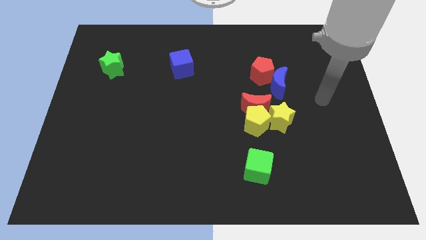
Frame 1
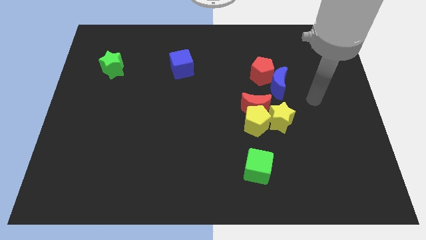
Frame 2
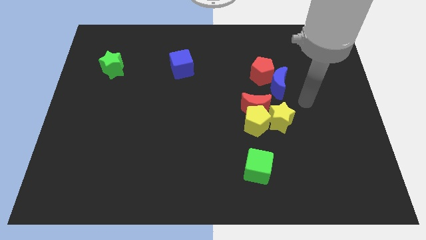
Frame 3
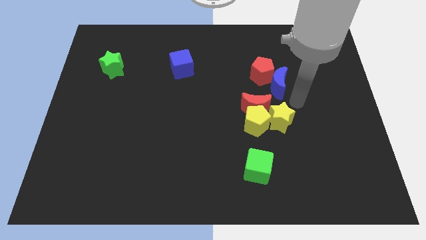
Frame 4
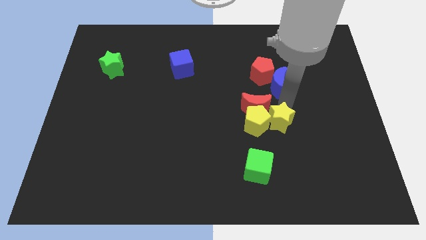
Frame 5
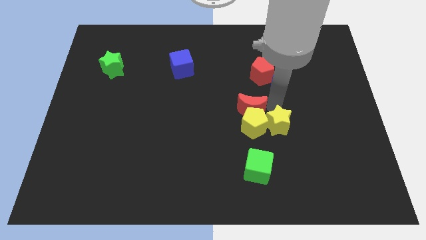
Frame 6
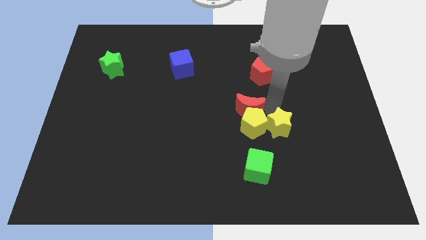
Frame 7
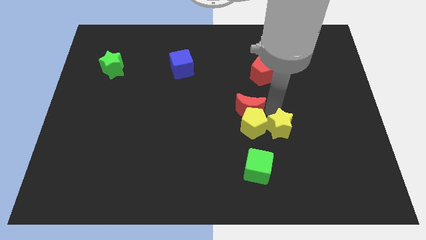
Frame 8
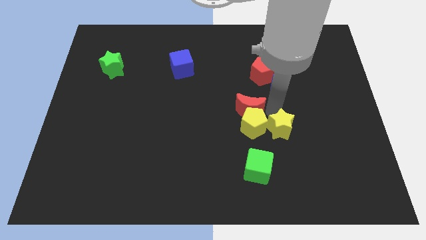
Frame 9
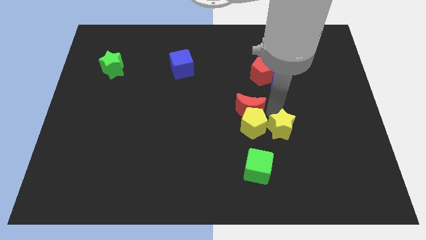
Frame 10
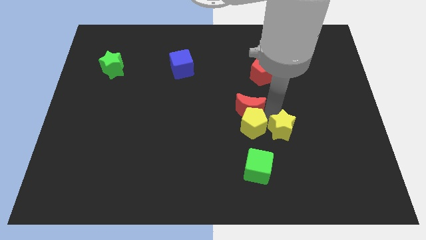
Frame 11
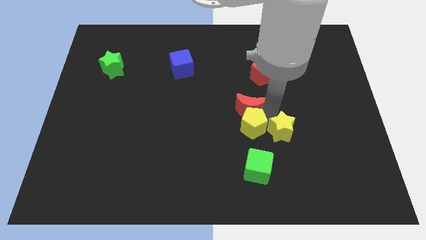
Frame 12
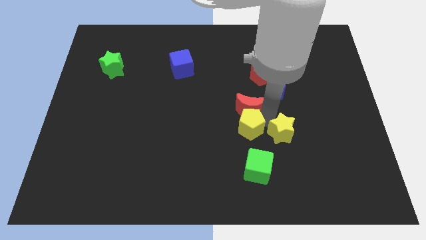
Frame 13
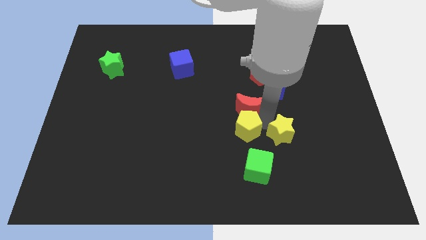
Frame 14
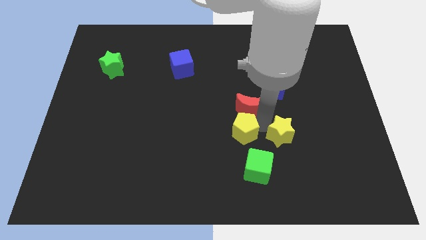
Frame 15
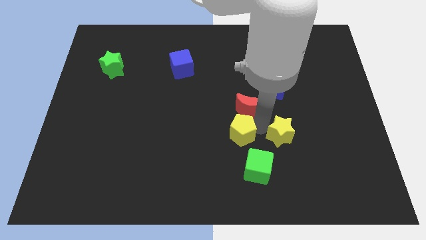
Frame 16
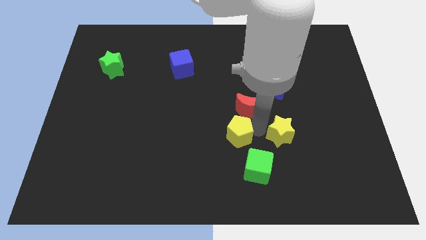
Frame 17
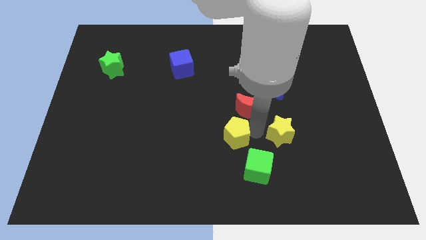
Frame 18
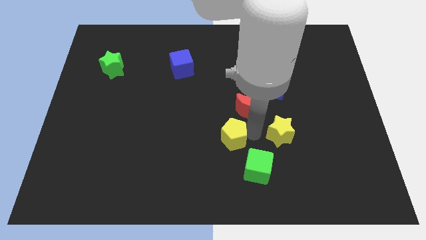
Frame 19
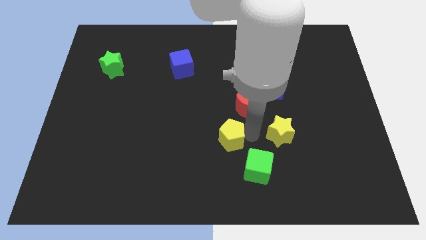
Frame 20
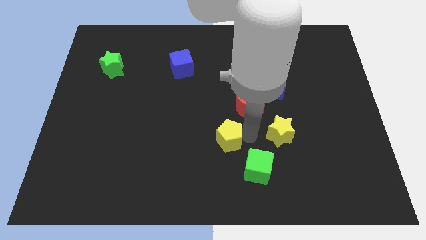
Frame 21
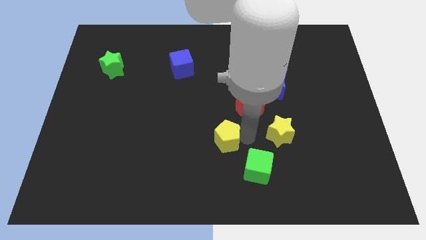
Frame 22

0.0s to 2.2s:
separate the yellow pentagon from the red moon and yellow star

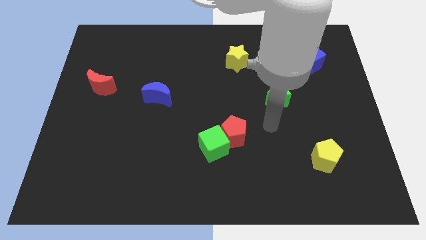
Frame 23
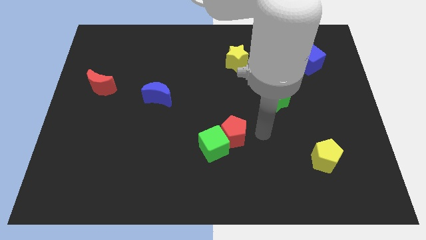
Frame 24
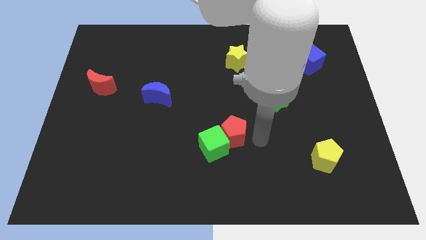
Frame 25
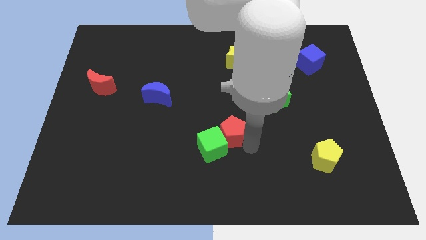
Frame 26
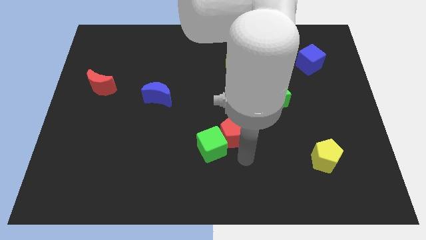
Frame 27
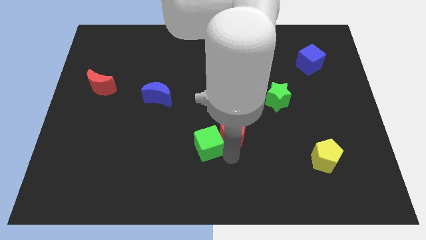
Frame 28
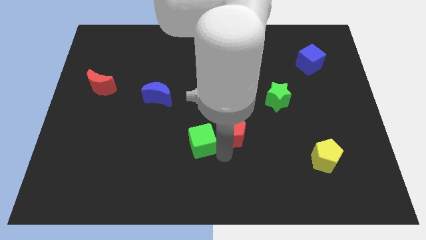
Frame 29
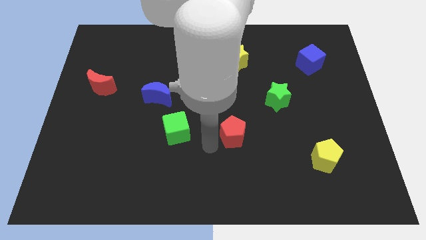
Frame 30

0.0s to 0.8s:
pull the red pentagon apart from the green cube

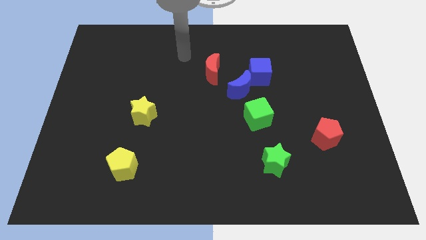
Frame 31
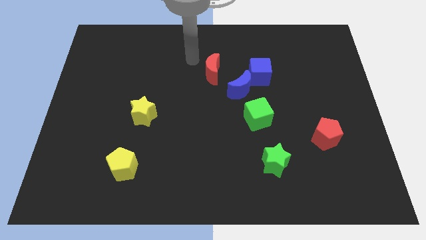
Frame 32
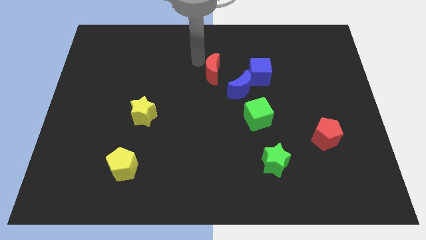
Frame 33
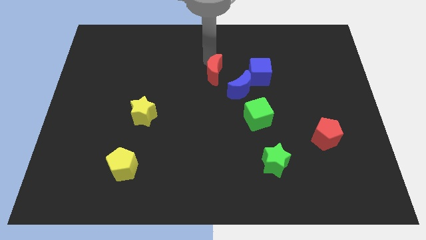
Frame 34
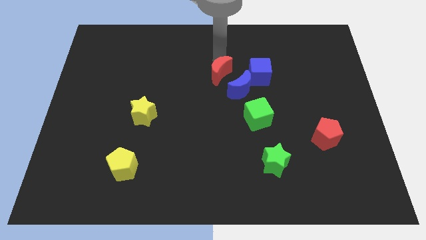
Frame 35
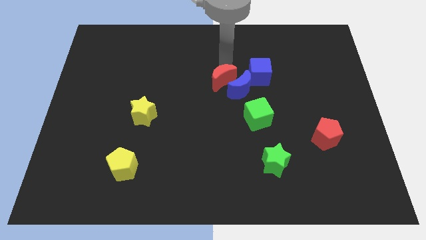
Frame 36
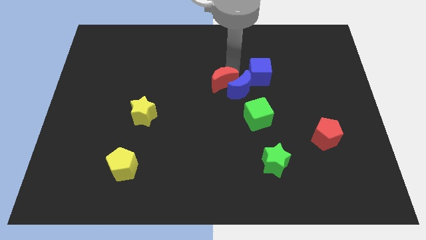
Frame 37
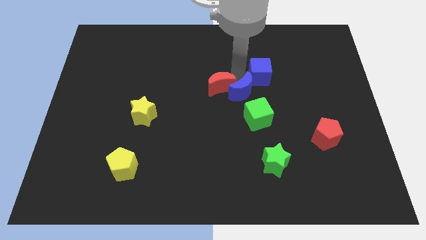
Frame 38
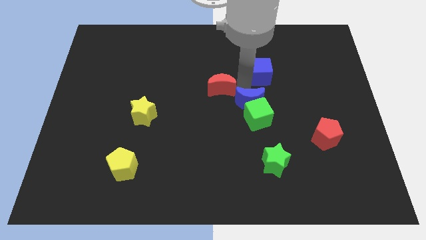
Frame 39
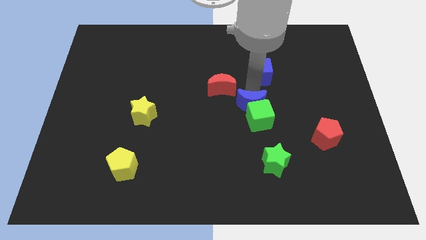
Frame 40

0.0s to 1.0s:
separate the blue cube from the blue moon

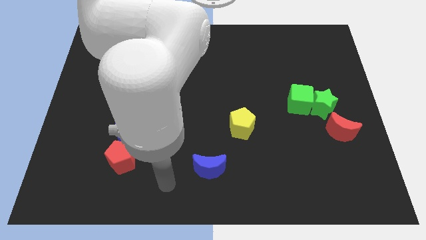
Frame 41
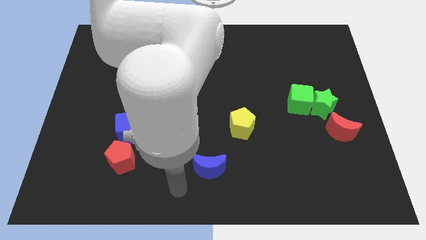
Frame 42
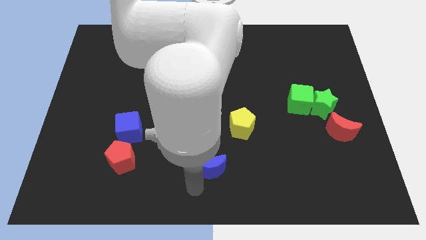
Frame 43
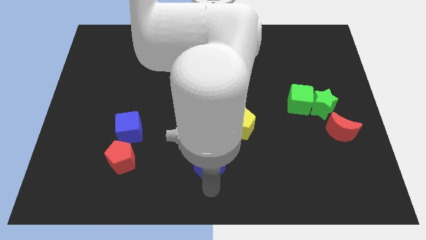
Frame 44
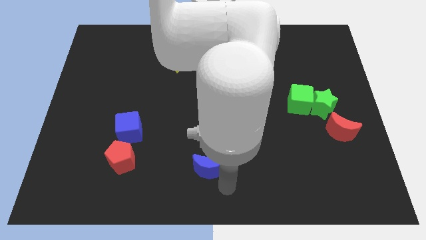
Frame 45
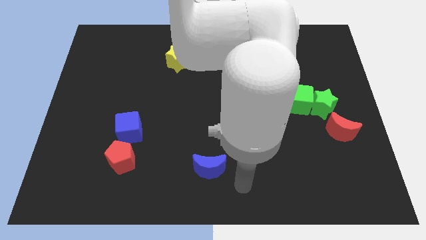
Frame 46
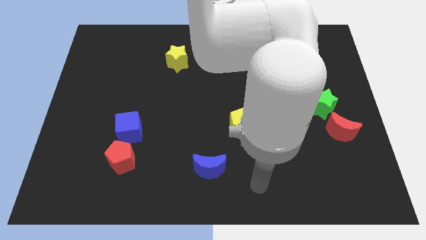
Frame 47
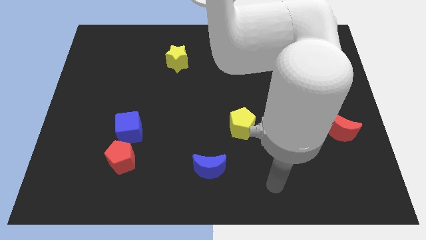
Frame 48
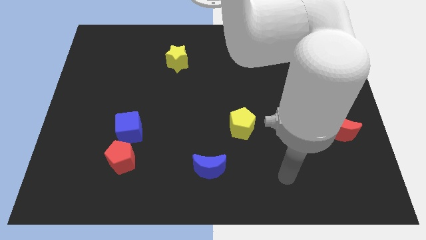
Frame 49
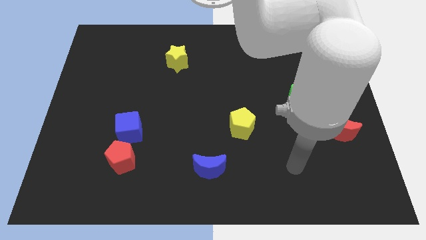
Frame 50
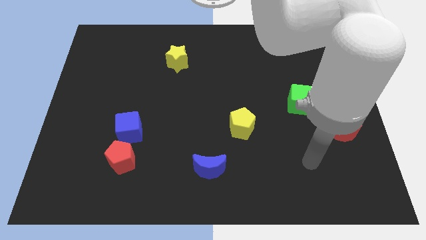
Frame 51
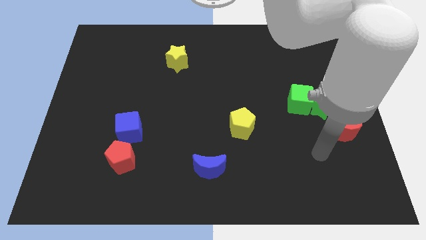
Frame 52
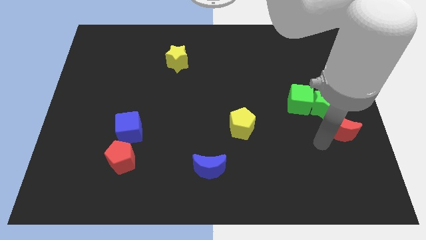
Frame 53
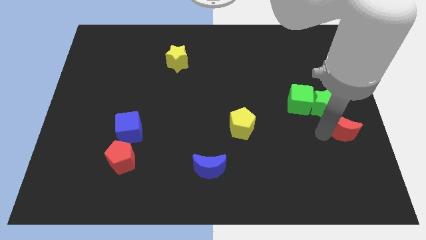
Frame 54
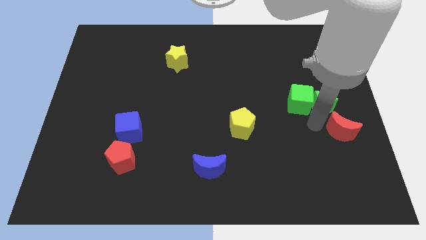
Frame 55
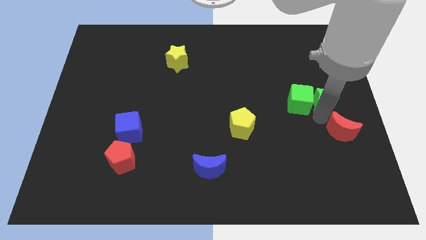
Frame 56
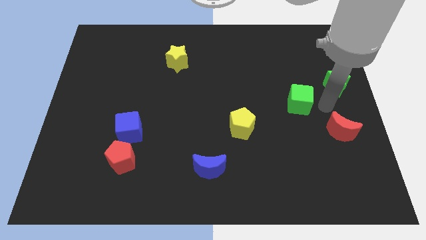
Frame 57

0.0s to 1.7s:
pull the green cube apart from the green star

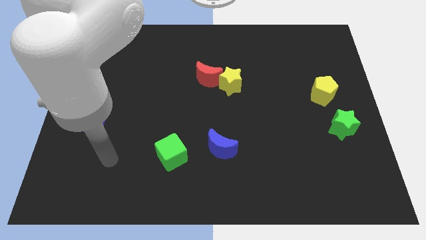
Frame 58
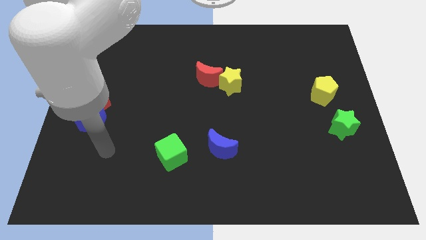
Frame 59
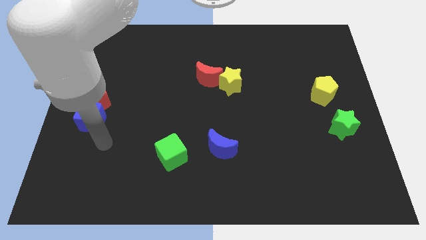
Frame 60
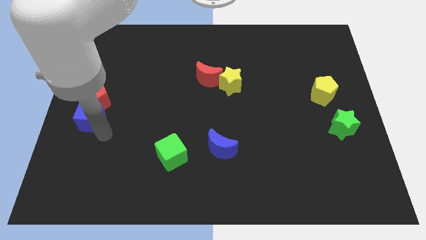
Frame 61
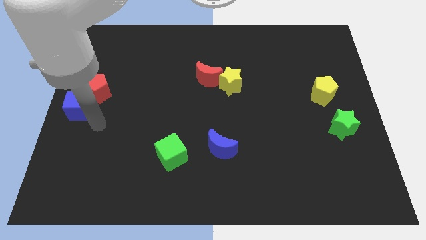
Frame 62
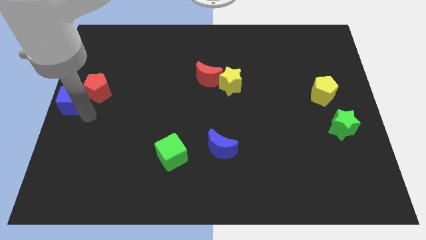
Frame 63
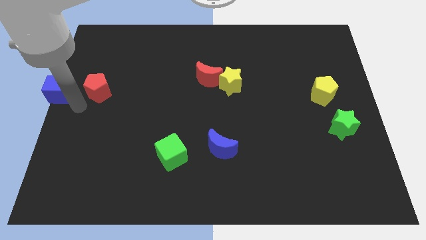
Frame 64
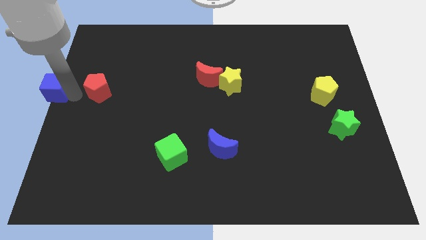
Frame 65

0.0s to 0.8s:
separate the red pentagon from the blue cube

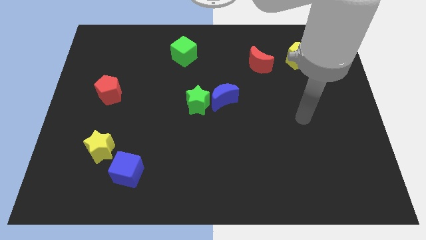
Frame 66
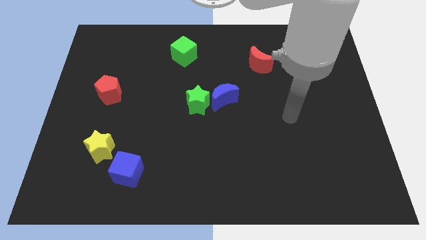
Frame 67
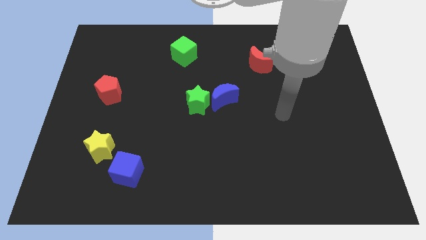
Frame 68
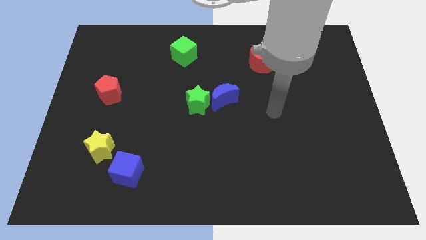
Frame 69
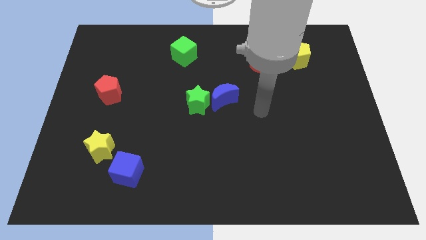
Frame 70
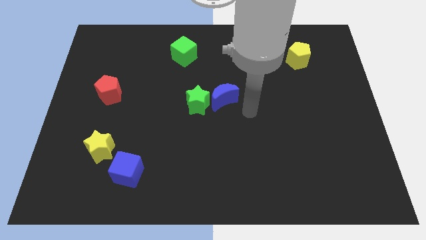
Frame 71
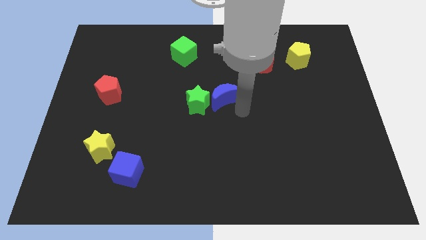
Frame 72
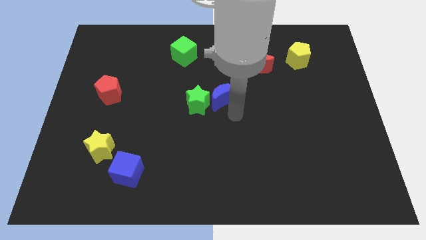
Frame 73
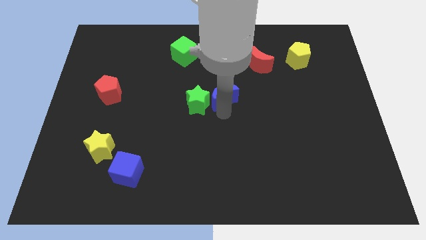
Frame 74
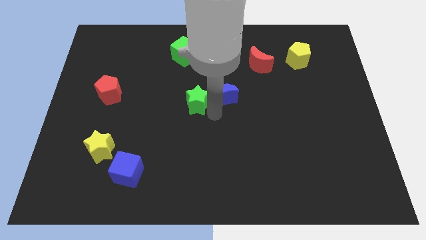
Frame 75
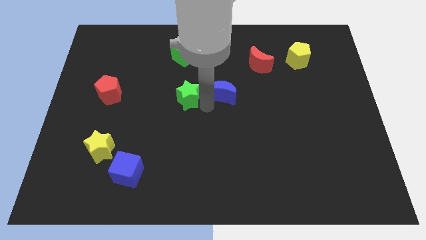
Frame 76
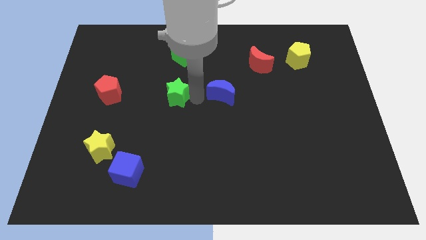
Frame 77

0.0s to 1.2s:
separate the blue moon from the green star

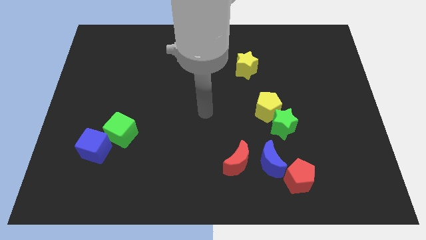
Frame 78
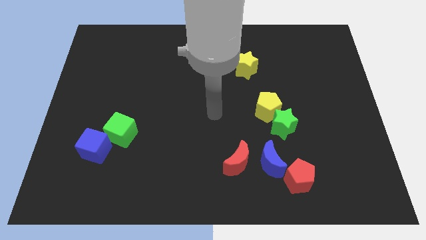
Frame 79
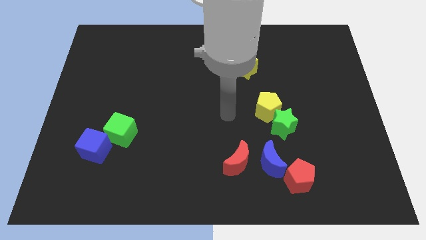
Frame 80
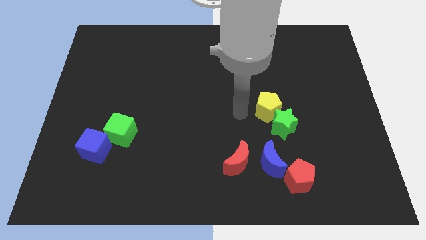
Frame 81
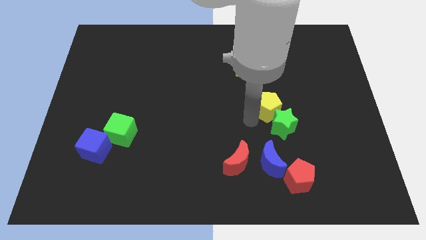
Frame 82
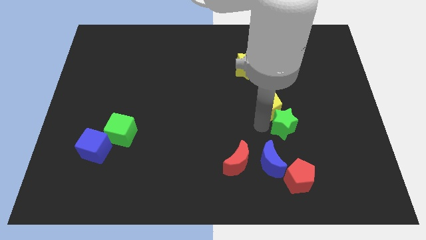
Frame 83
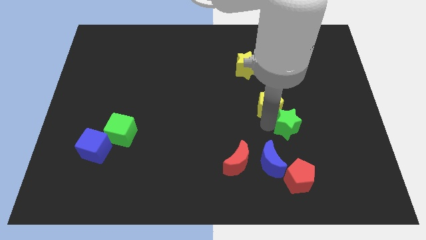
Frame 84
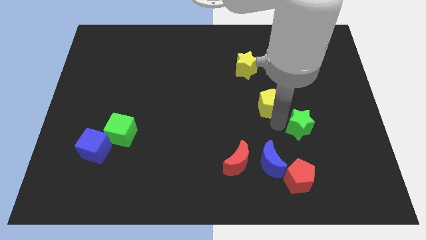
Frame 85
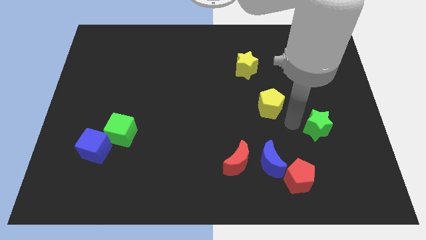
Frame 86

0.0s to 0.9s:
move the yellow pentagon away from the green star

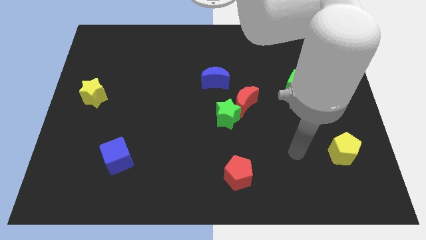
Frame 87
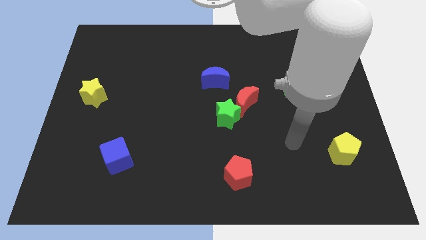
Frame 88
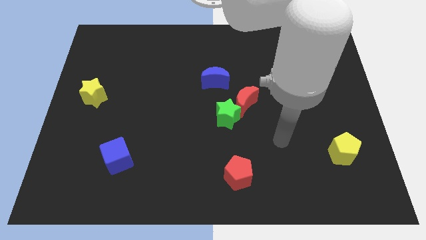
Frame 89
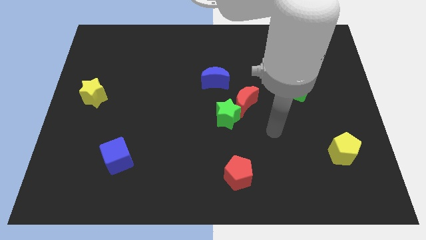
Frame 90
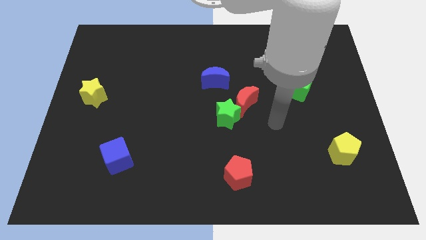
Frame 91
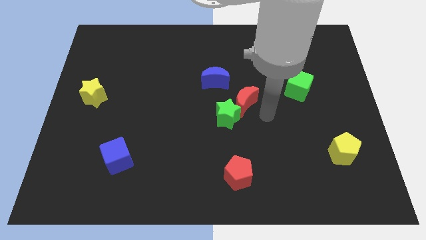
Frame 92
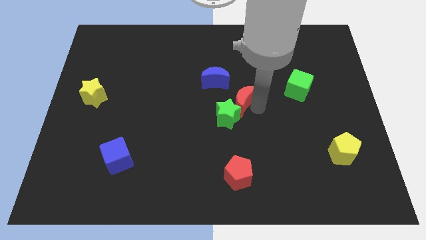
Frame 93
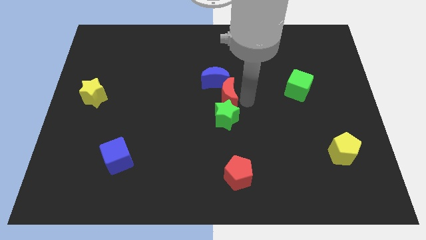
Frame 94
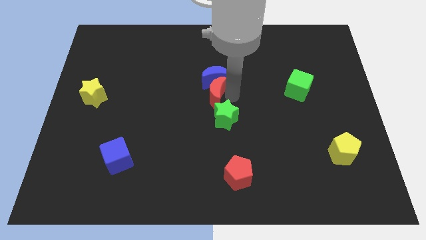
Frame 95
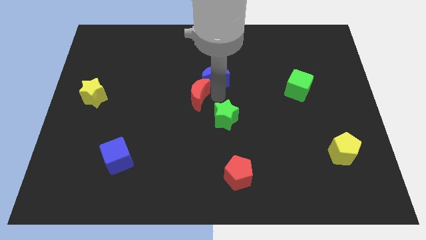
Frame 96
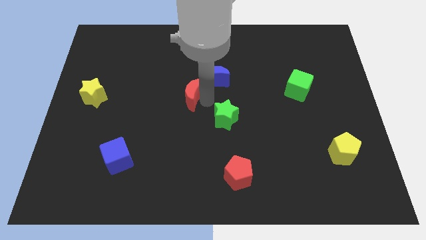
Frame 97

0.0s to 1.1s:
move the green star away from the red moon
